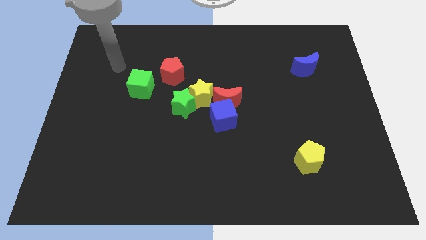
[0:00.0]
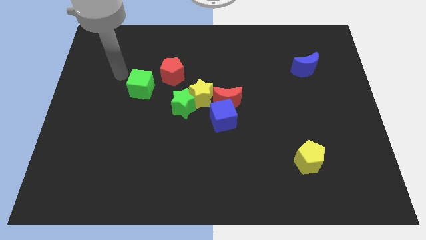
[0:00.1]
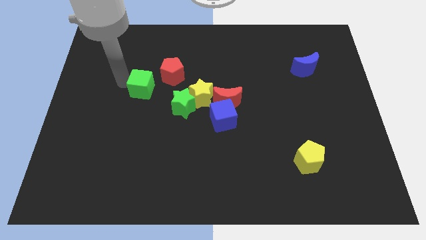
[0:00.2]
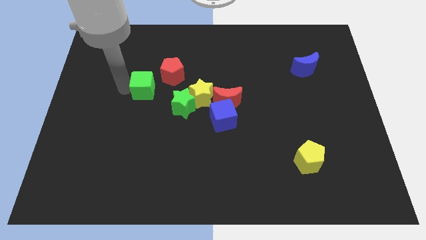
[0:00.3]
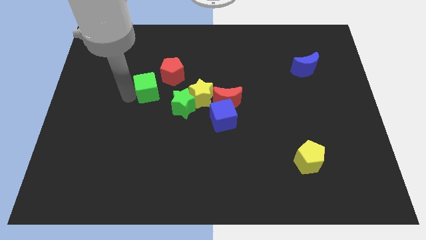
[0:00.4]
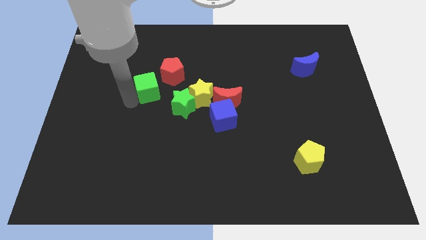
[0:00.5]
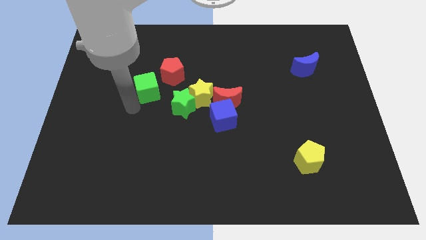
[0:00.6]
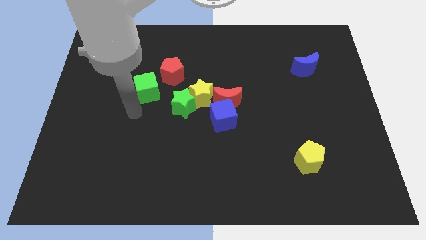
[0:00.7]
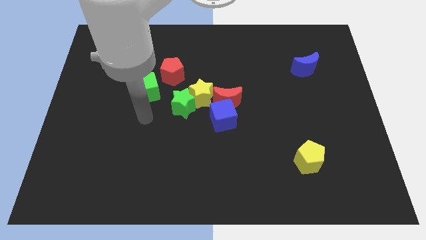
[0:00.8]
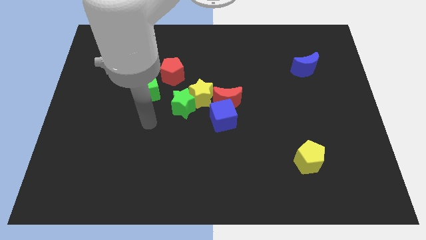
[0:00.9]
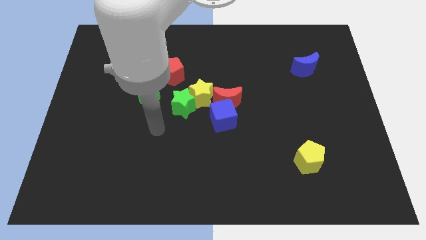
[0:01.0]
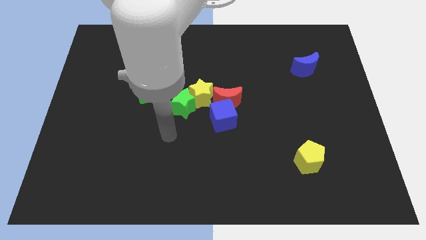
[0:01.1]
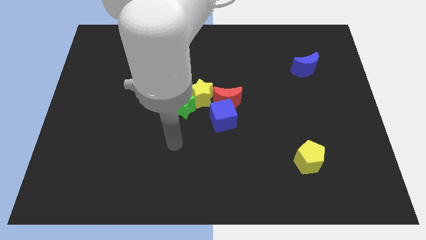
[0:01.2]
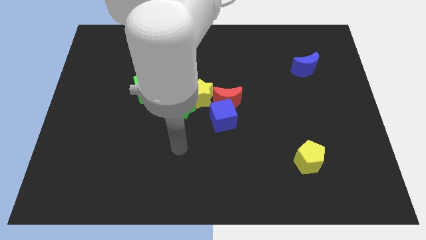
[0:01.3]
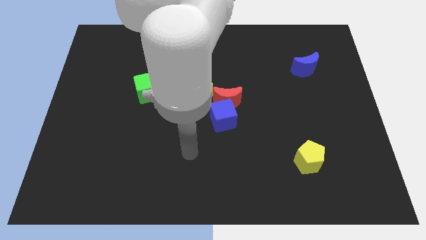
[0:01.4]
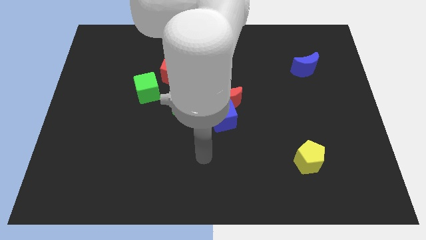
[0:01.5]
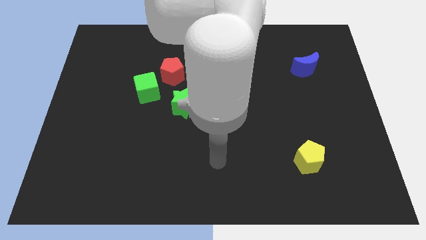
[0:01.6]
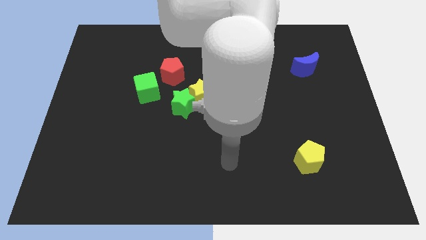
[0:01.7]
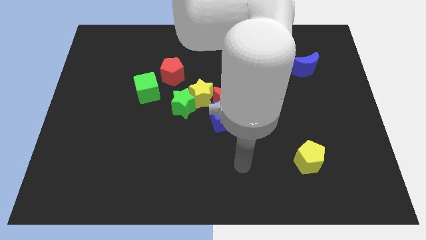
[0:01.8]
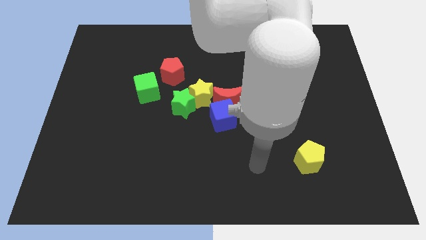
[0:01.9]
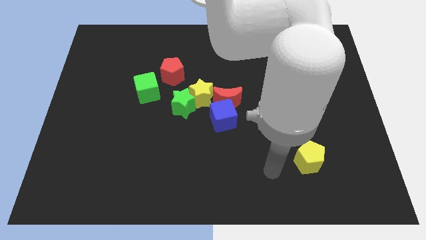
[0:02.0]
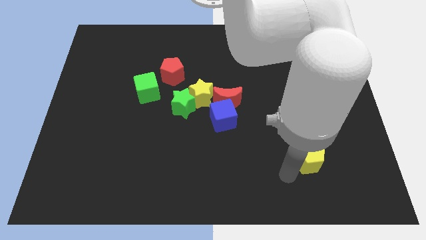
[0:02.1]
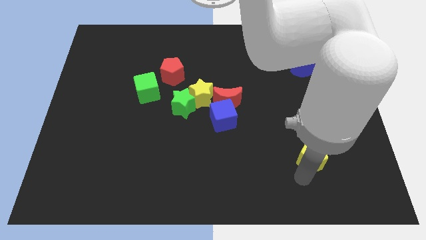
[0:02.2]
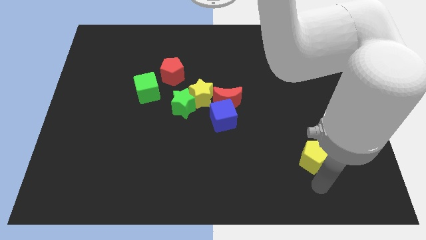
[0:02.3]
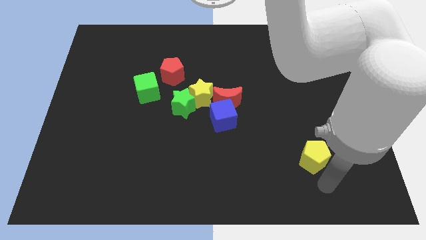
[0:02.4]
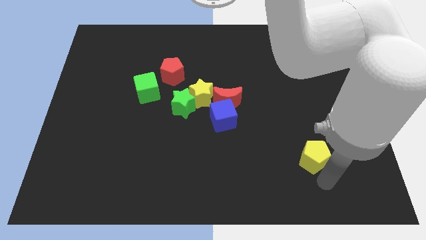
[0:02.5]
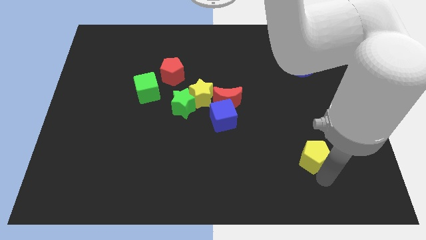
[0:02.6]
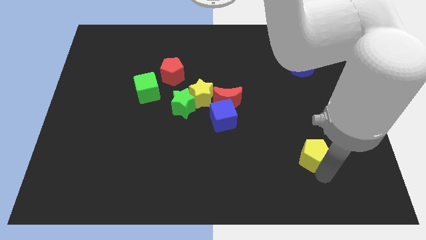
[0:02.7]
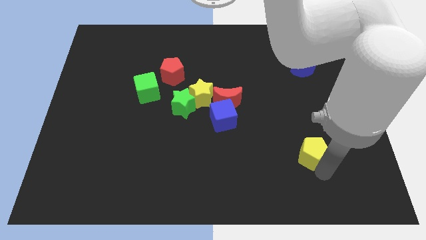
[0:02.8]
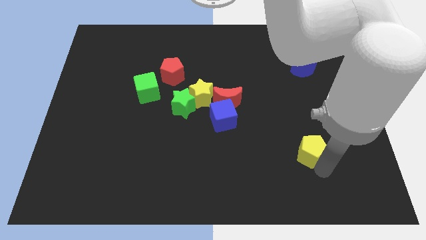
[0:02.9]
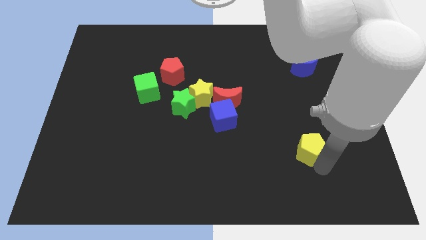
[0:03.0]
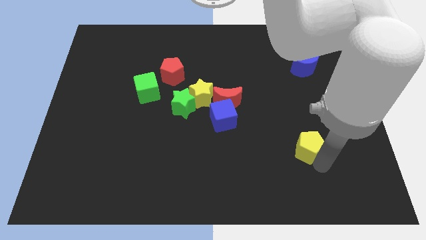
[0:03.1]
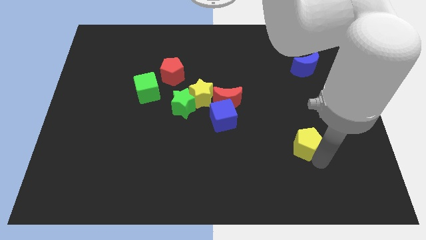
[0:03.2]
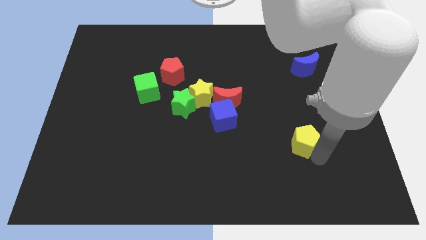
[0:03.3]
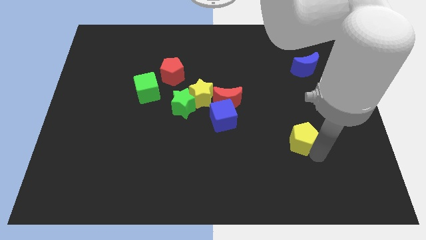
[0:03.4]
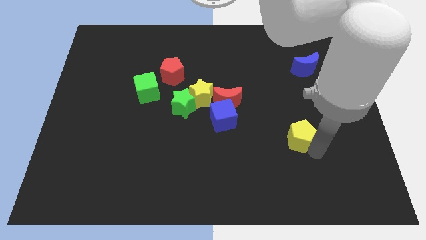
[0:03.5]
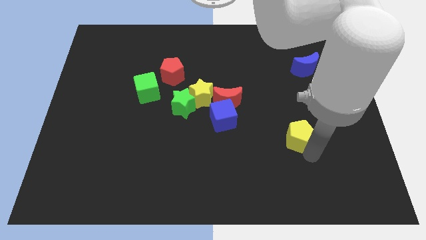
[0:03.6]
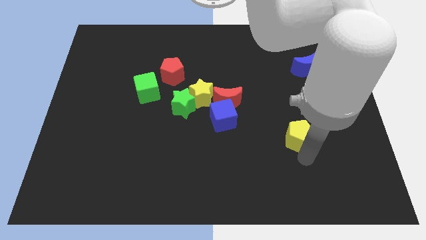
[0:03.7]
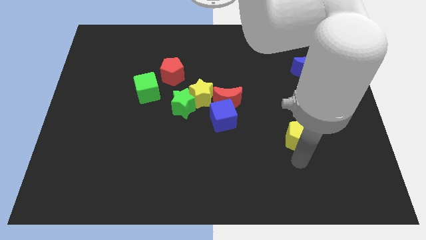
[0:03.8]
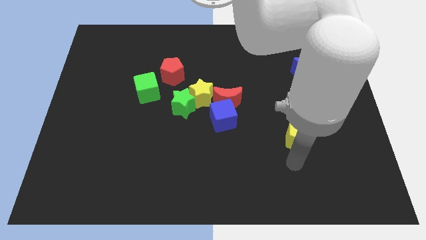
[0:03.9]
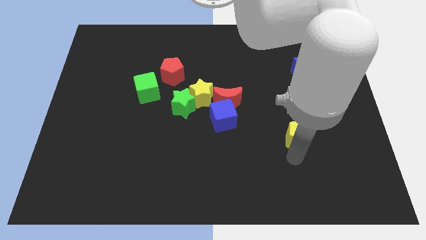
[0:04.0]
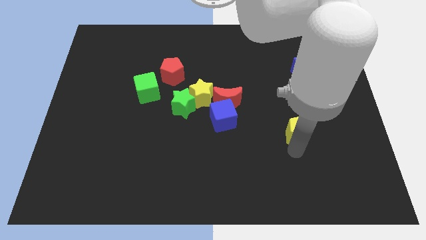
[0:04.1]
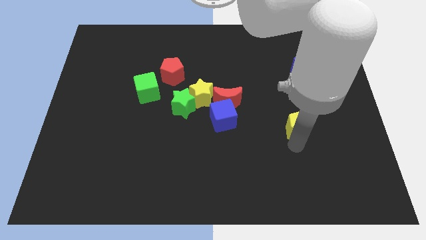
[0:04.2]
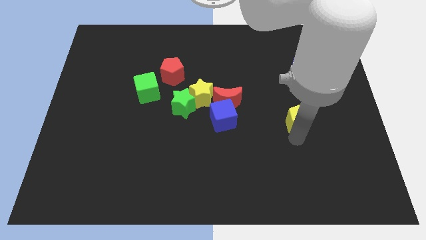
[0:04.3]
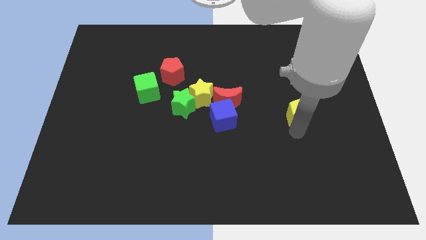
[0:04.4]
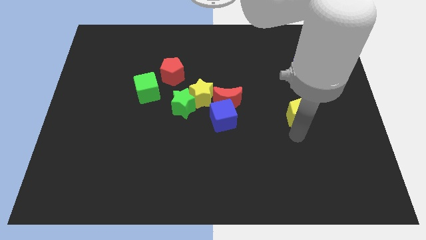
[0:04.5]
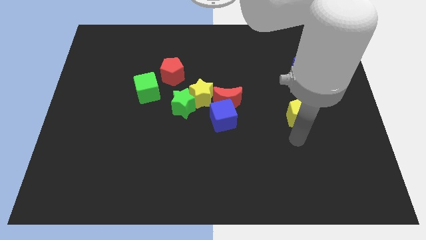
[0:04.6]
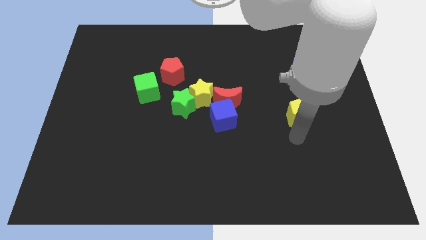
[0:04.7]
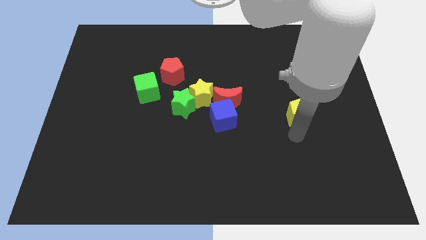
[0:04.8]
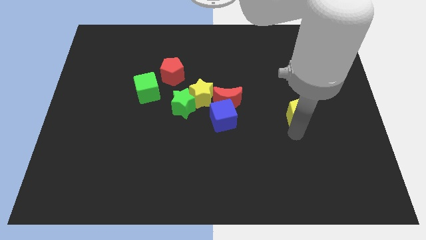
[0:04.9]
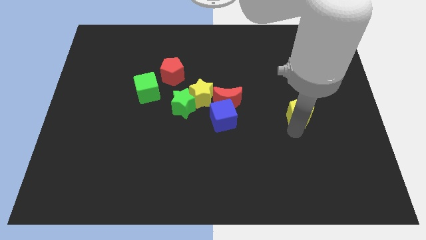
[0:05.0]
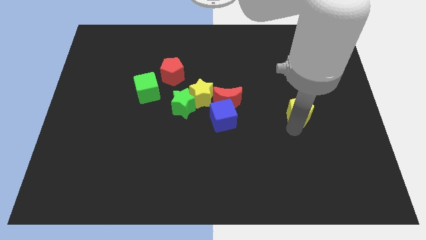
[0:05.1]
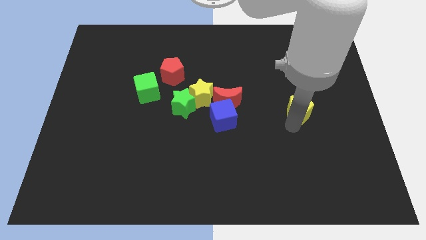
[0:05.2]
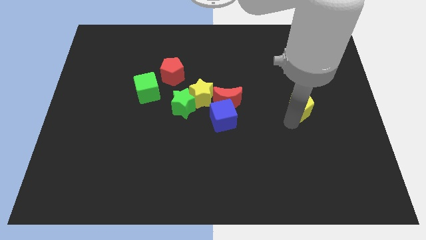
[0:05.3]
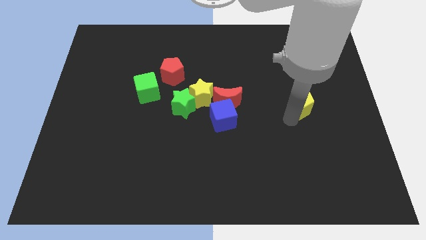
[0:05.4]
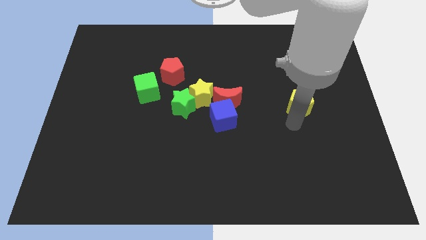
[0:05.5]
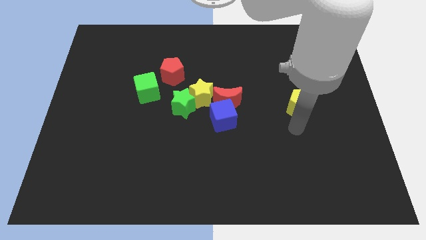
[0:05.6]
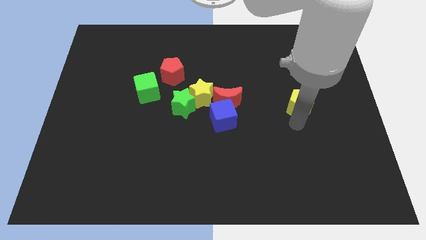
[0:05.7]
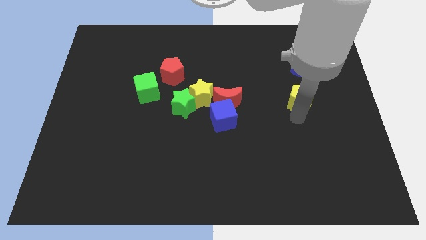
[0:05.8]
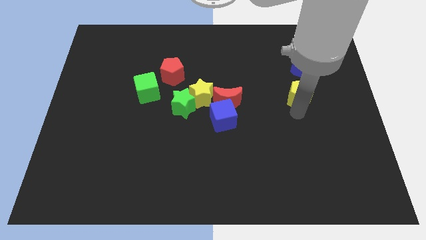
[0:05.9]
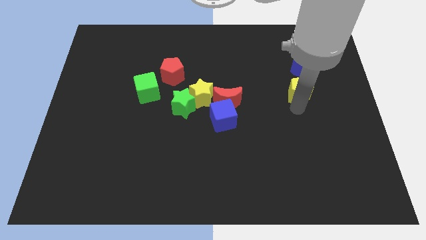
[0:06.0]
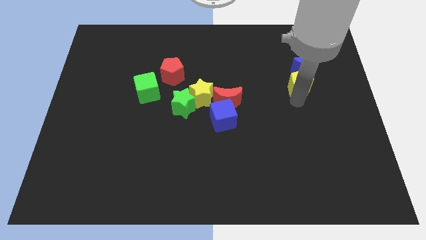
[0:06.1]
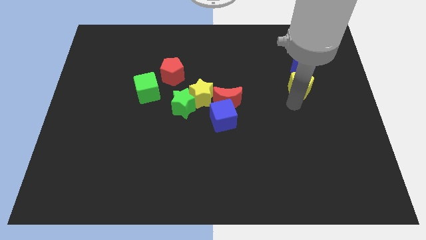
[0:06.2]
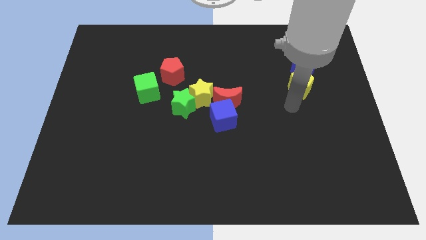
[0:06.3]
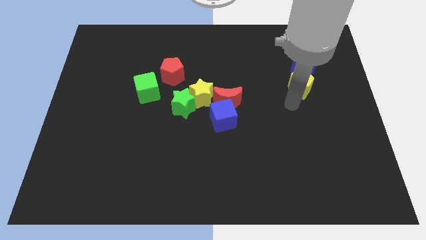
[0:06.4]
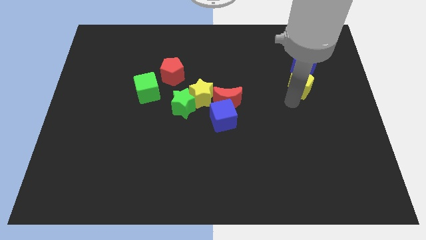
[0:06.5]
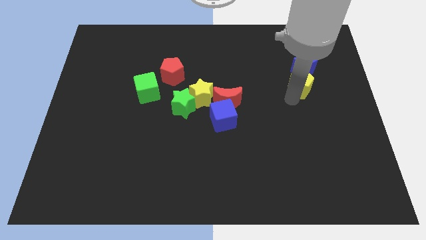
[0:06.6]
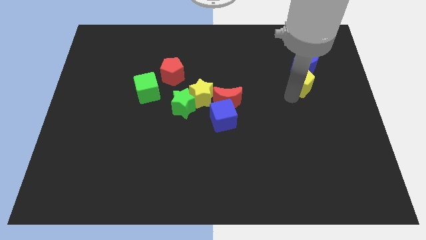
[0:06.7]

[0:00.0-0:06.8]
slide the yellow pentagon towards the blue moon
